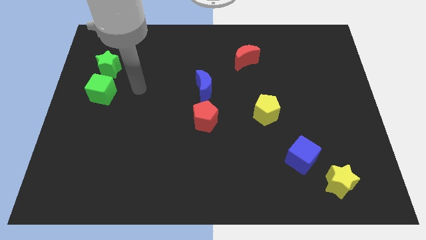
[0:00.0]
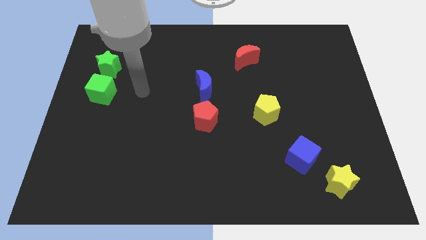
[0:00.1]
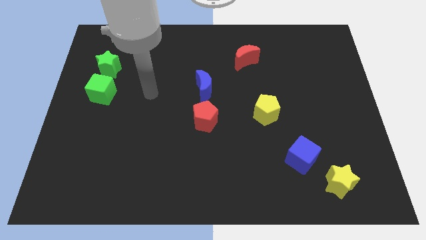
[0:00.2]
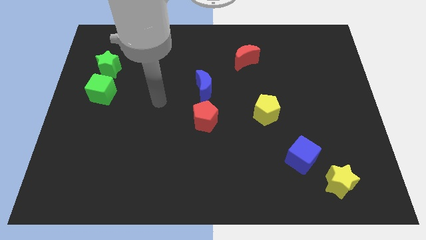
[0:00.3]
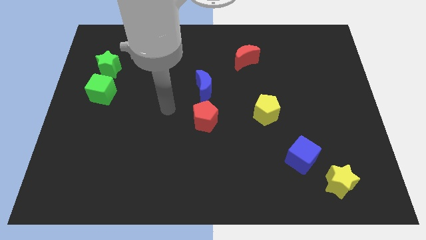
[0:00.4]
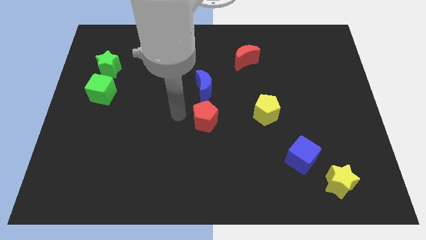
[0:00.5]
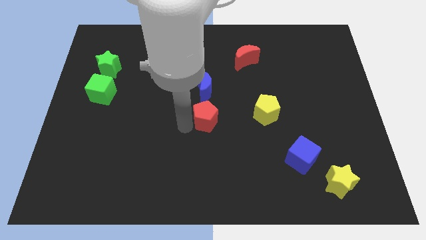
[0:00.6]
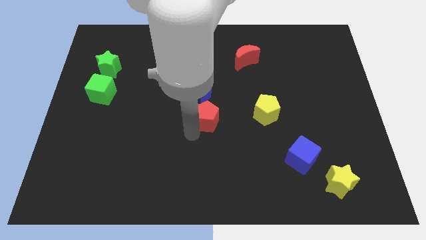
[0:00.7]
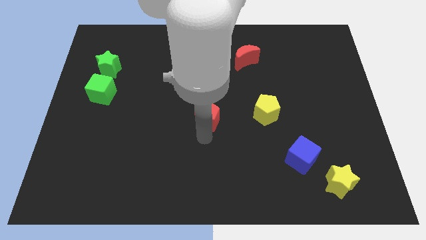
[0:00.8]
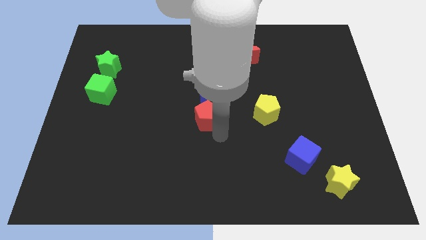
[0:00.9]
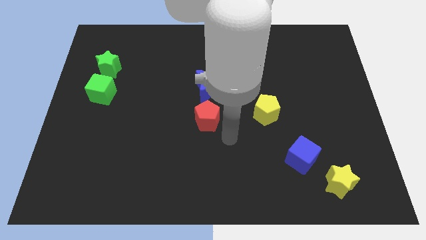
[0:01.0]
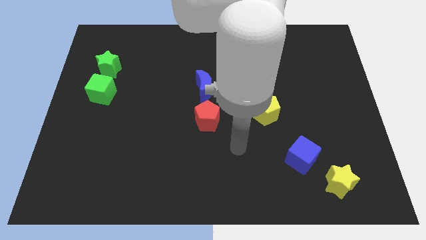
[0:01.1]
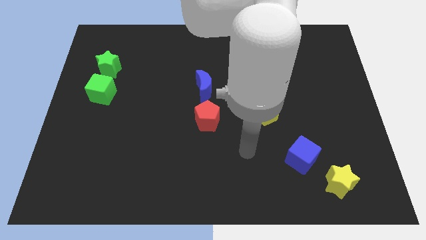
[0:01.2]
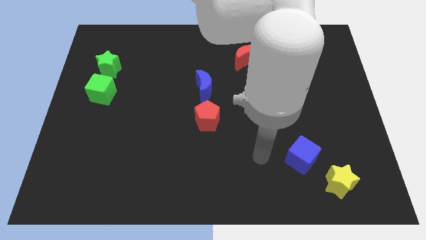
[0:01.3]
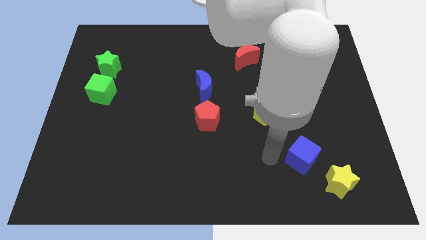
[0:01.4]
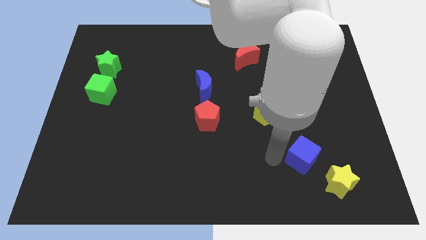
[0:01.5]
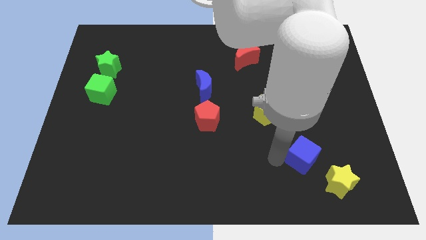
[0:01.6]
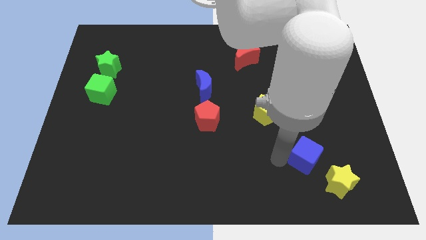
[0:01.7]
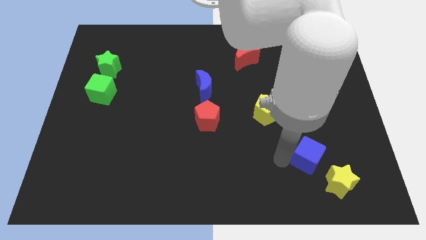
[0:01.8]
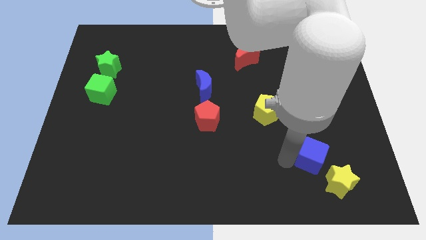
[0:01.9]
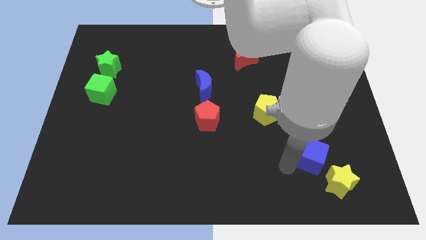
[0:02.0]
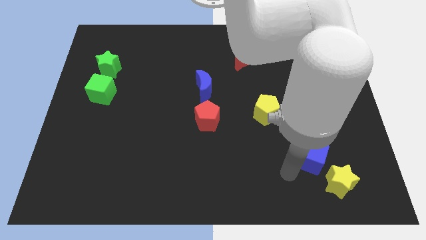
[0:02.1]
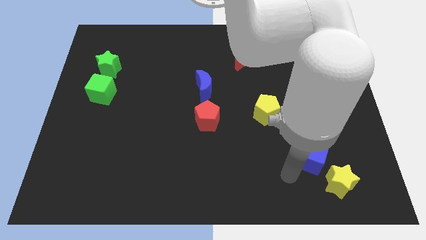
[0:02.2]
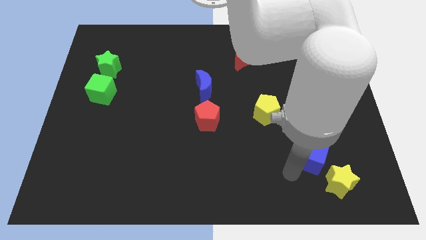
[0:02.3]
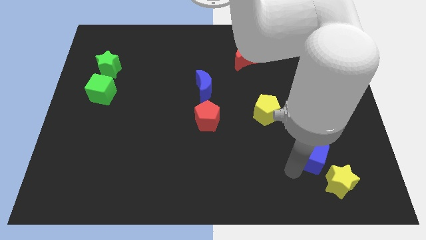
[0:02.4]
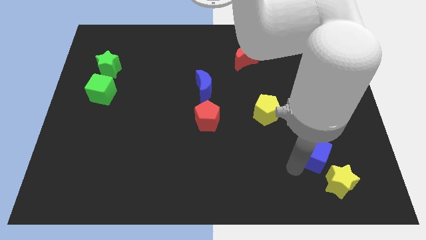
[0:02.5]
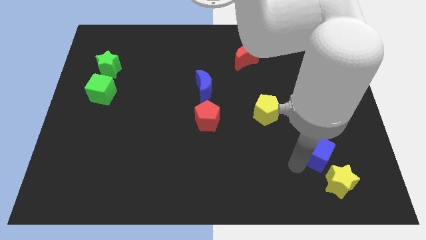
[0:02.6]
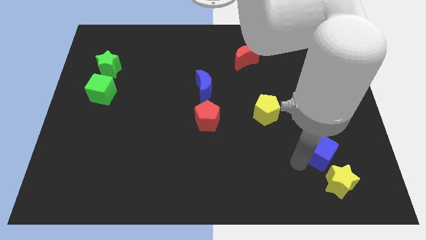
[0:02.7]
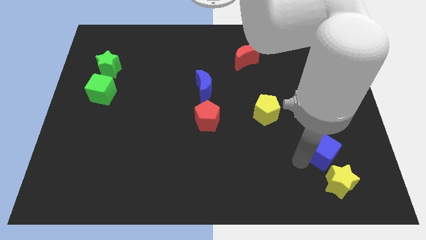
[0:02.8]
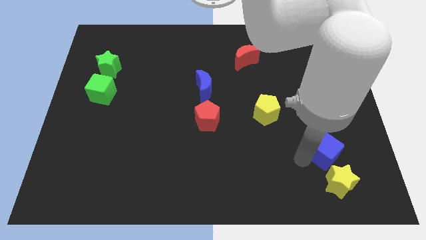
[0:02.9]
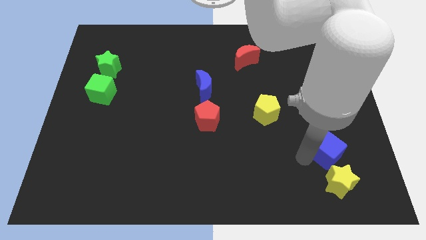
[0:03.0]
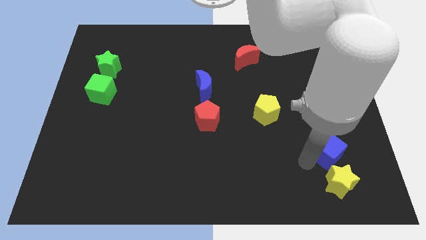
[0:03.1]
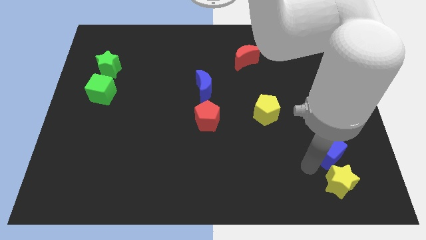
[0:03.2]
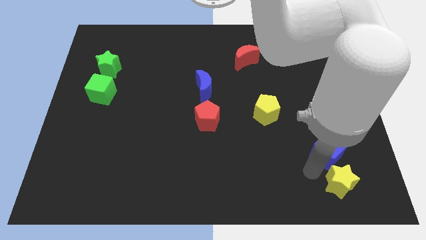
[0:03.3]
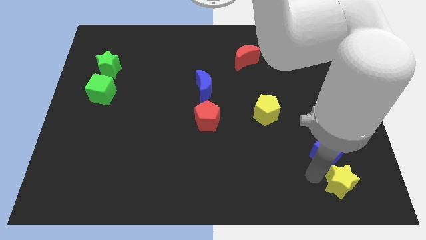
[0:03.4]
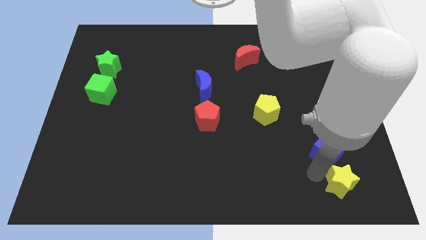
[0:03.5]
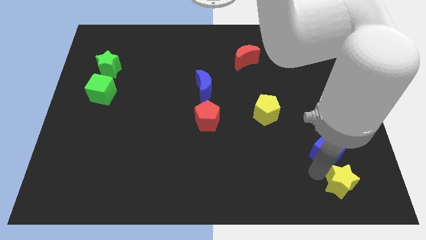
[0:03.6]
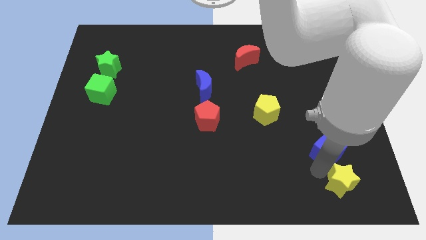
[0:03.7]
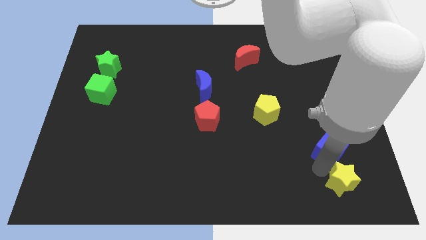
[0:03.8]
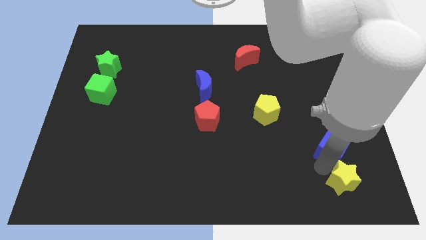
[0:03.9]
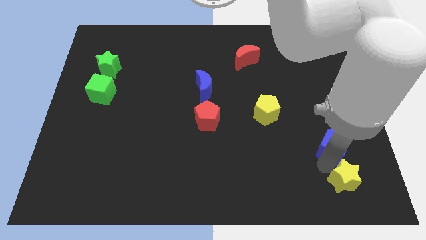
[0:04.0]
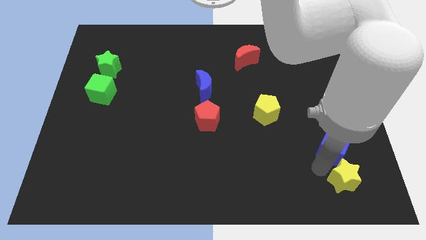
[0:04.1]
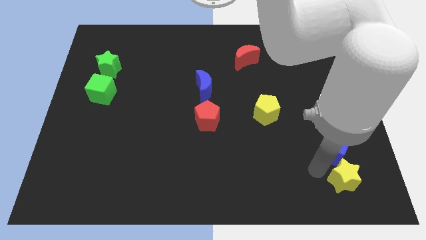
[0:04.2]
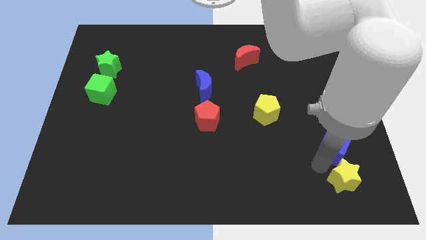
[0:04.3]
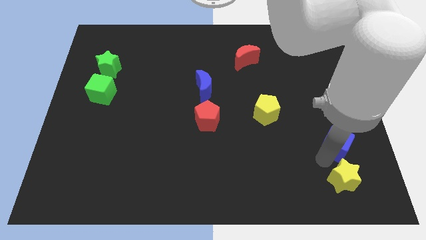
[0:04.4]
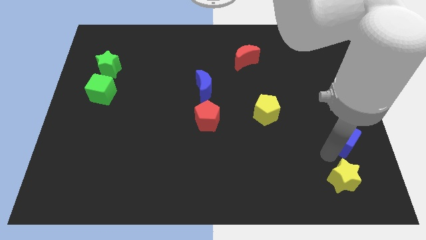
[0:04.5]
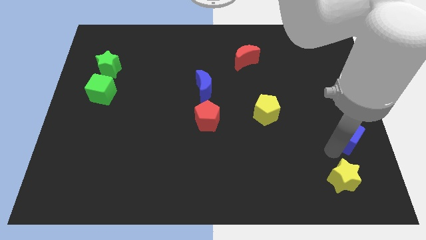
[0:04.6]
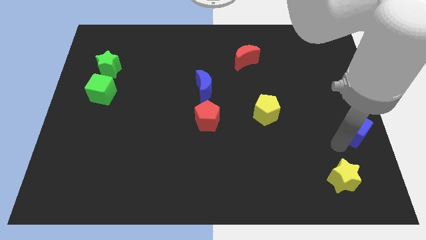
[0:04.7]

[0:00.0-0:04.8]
move the blue cube to the right side

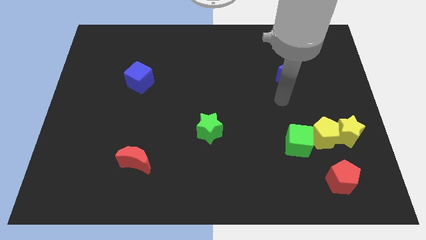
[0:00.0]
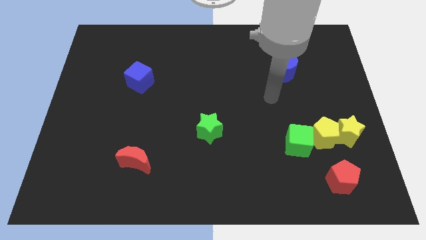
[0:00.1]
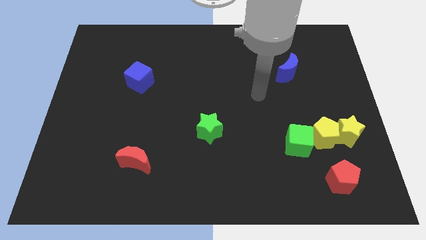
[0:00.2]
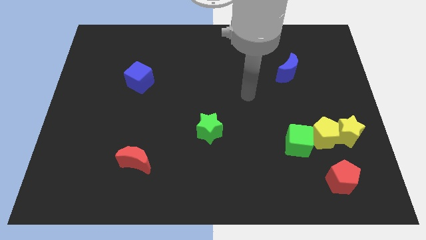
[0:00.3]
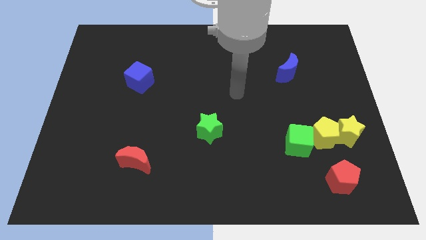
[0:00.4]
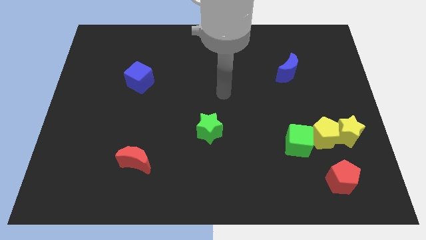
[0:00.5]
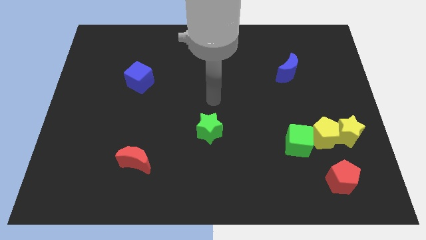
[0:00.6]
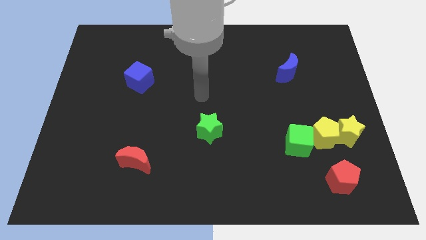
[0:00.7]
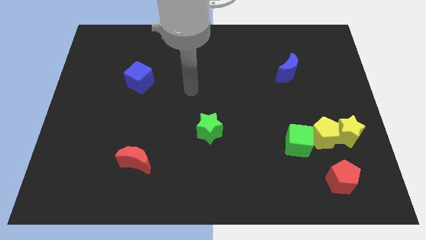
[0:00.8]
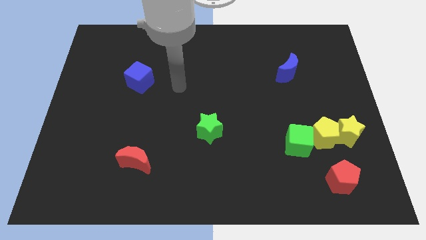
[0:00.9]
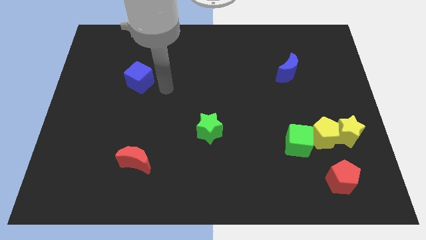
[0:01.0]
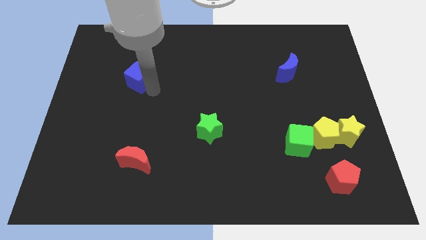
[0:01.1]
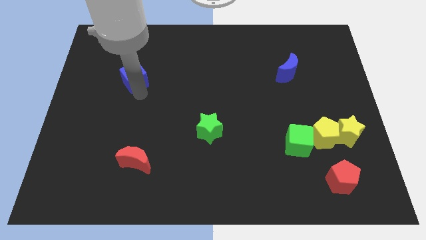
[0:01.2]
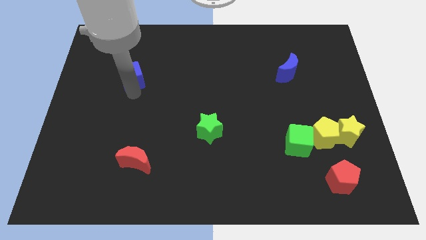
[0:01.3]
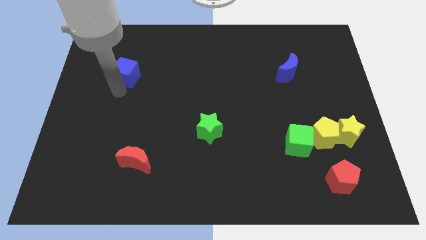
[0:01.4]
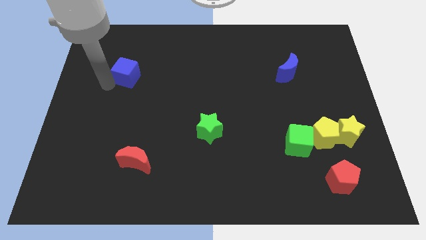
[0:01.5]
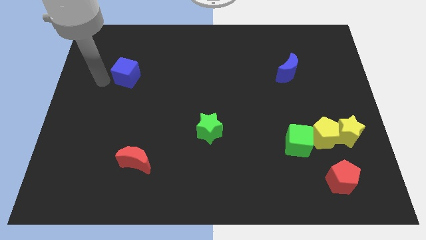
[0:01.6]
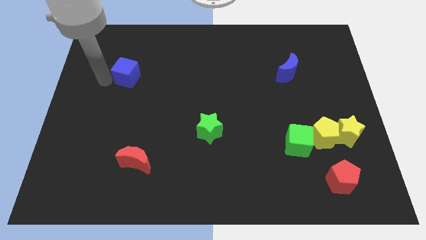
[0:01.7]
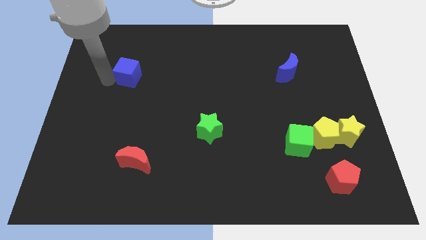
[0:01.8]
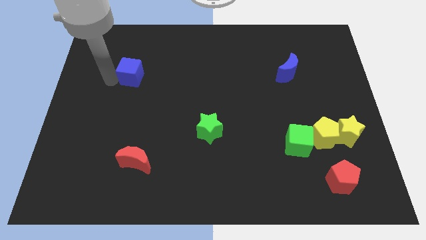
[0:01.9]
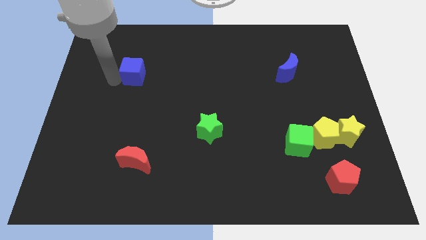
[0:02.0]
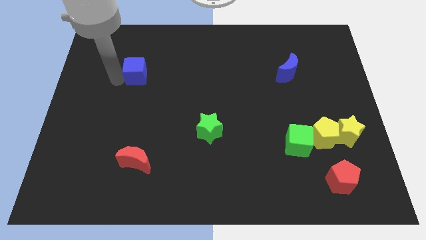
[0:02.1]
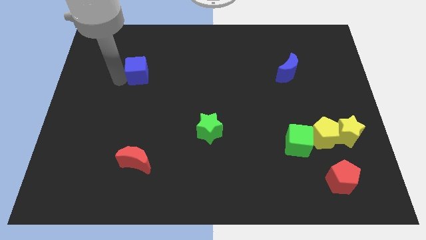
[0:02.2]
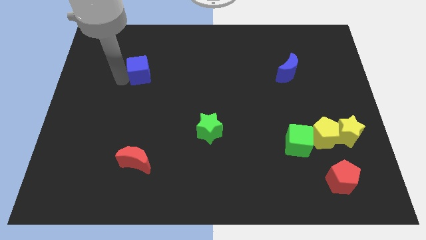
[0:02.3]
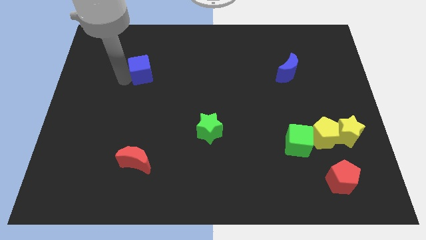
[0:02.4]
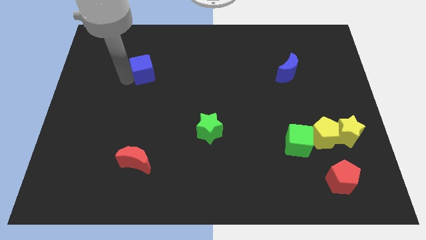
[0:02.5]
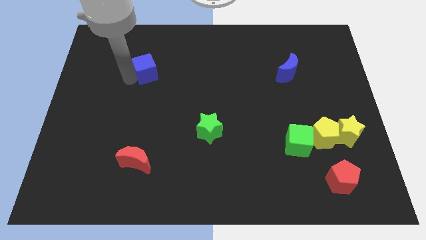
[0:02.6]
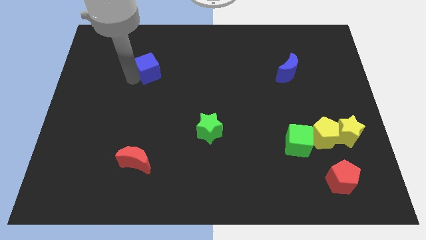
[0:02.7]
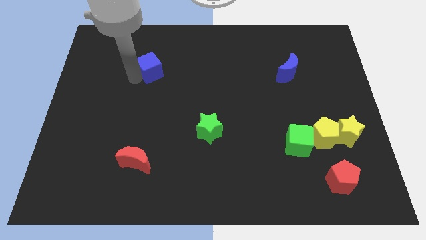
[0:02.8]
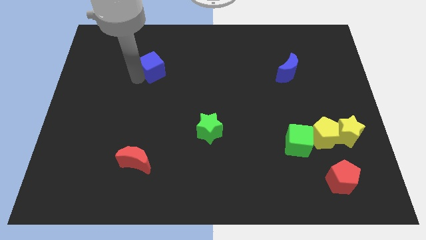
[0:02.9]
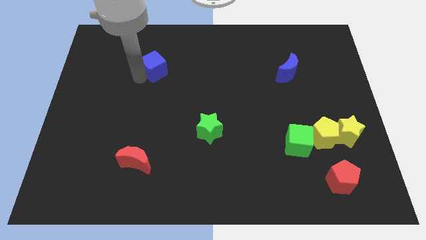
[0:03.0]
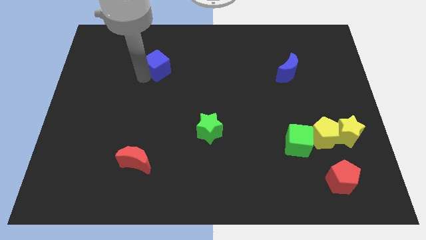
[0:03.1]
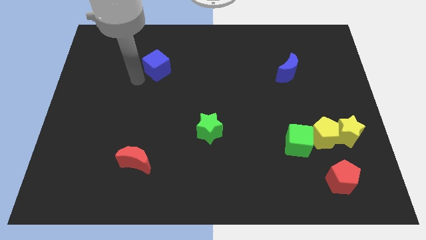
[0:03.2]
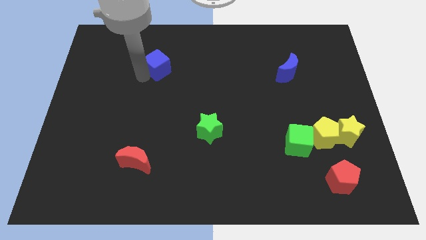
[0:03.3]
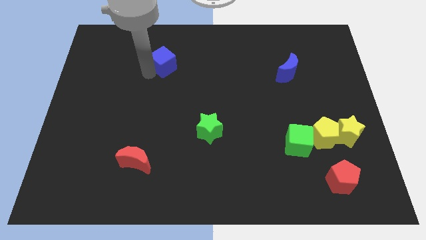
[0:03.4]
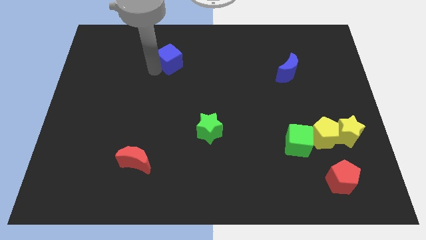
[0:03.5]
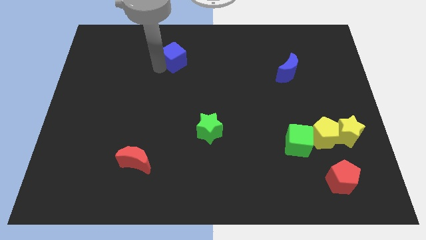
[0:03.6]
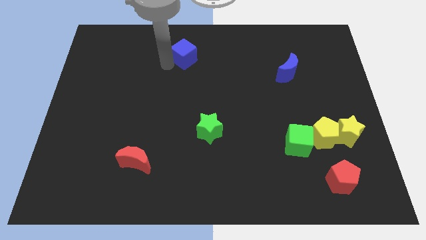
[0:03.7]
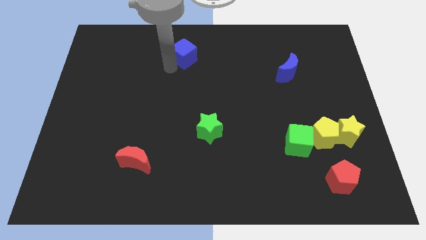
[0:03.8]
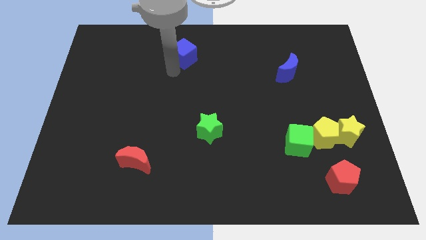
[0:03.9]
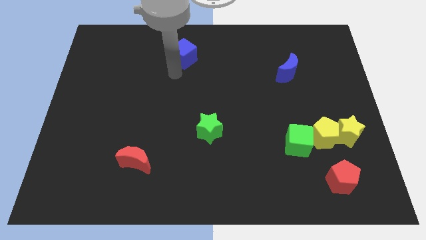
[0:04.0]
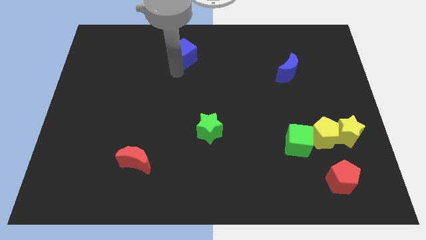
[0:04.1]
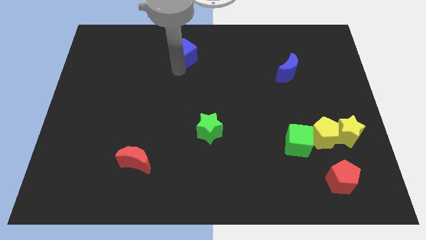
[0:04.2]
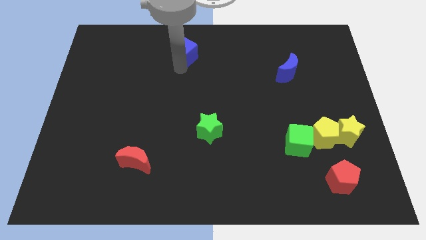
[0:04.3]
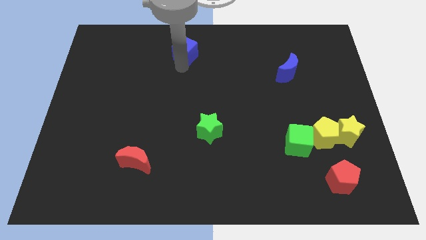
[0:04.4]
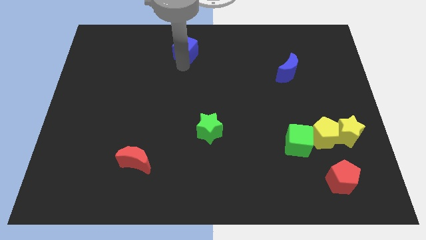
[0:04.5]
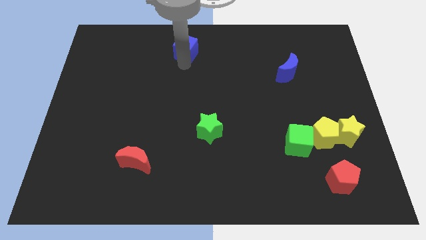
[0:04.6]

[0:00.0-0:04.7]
push the blue cube to the top
